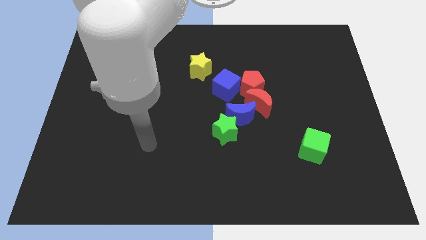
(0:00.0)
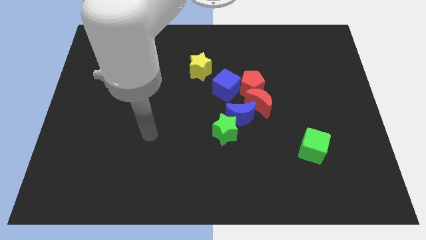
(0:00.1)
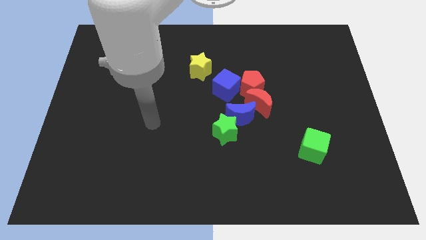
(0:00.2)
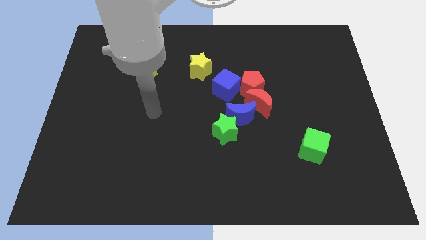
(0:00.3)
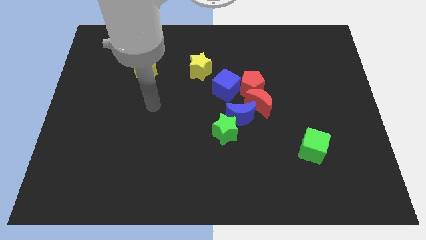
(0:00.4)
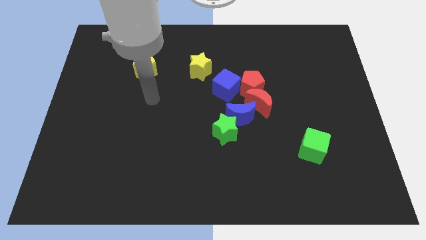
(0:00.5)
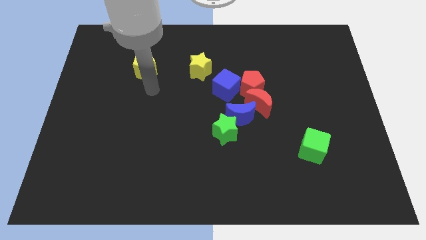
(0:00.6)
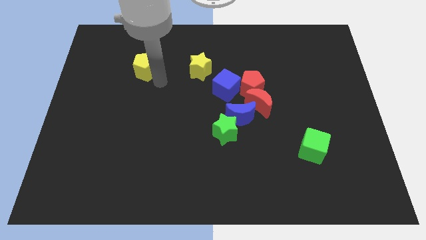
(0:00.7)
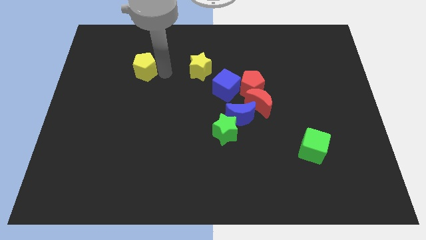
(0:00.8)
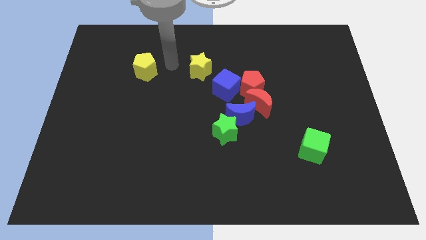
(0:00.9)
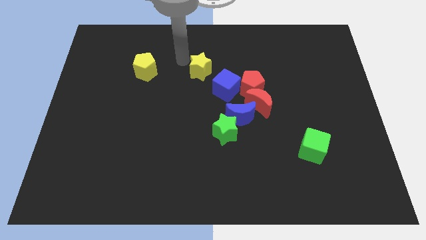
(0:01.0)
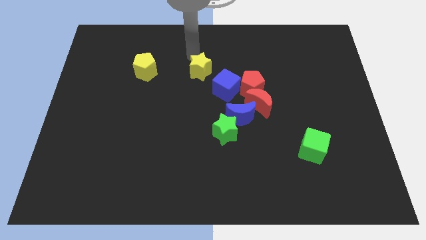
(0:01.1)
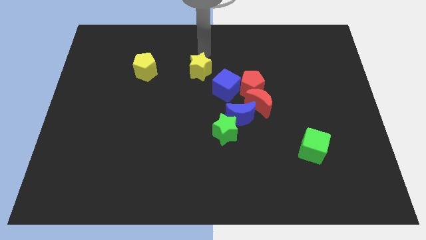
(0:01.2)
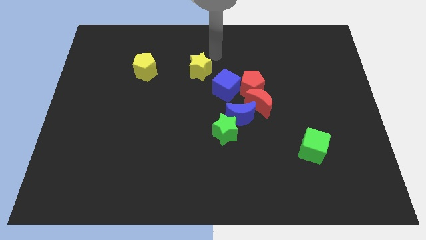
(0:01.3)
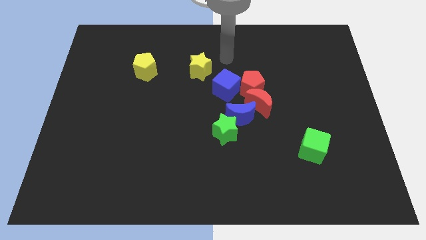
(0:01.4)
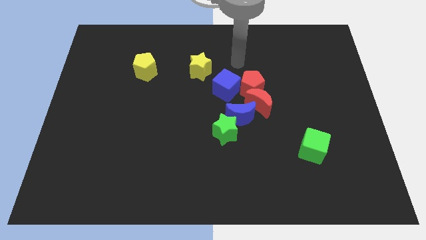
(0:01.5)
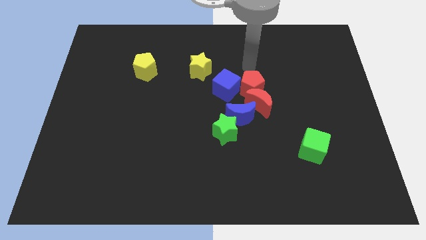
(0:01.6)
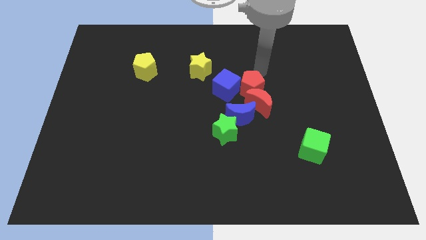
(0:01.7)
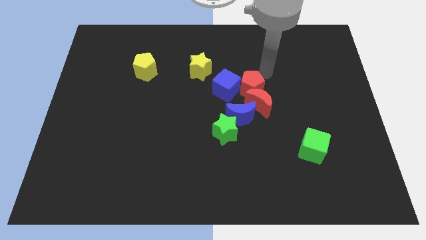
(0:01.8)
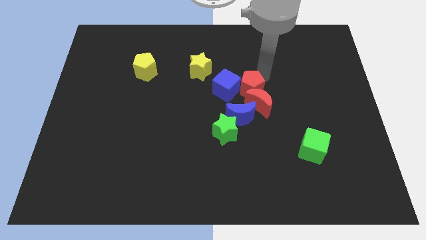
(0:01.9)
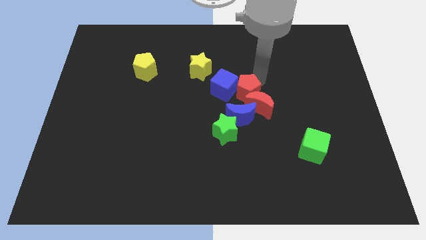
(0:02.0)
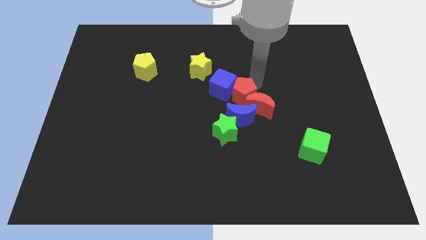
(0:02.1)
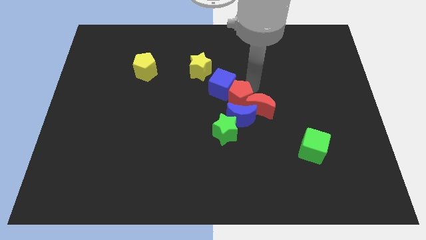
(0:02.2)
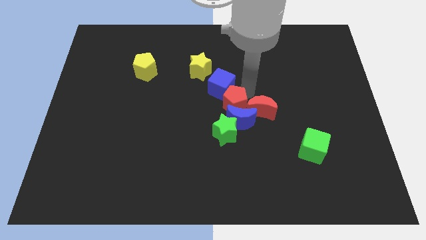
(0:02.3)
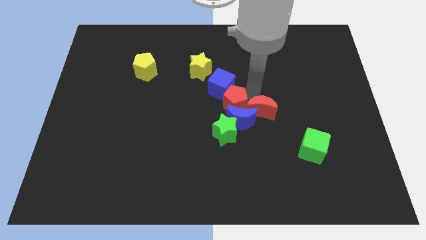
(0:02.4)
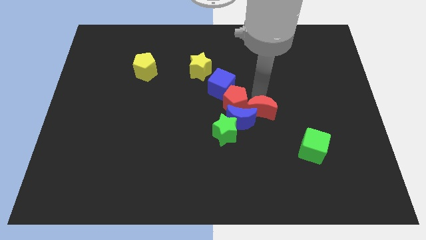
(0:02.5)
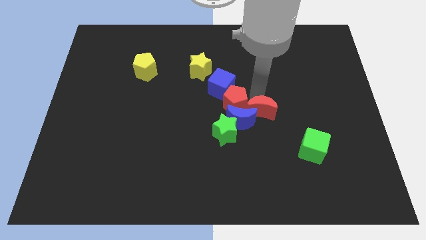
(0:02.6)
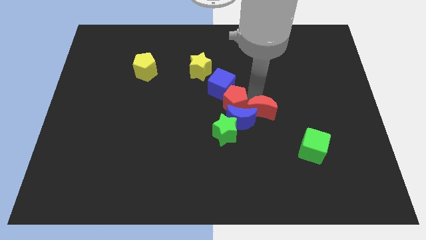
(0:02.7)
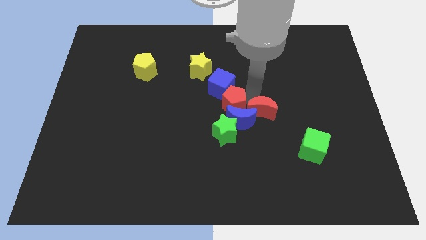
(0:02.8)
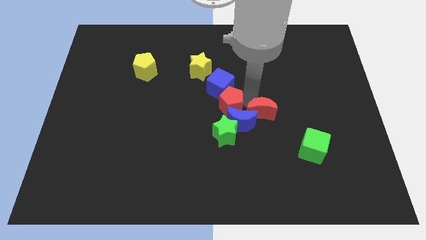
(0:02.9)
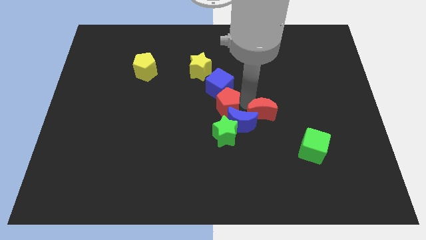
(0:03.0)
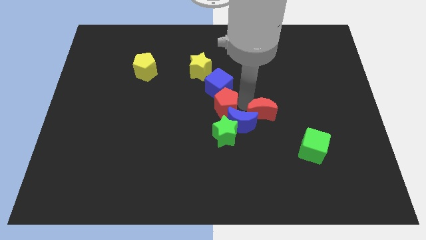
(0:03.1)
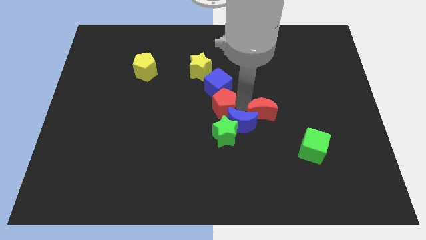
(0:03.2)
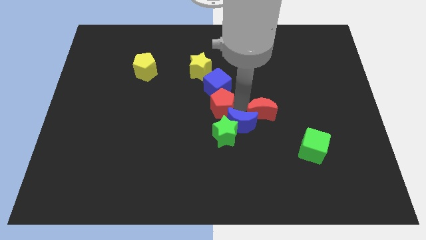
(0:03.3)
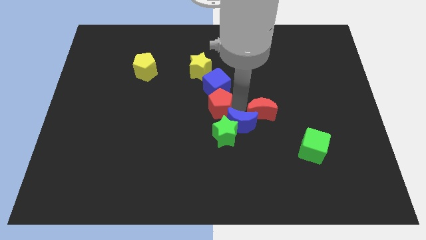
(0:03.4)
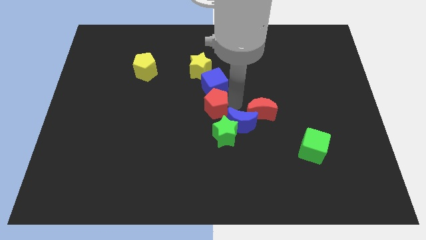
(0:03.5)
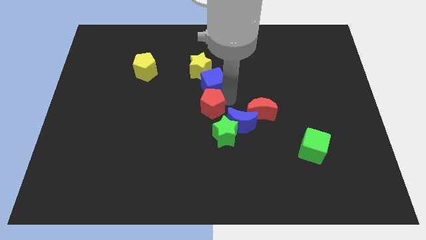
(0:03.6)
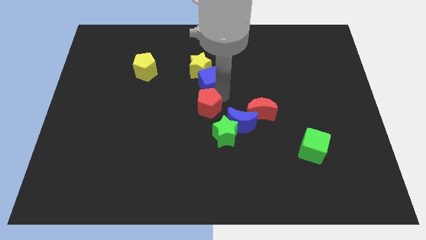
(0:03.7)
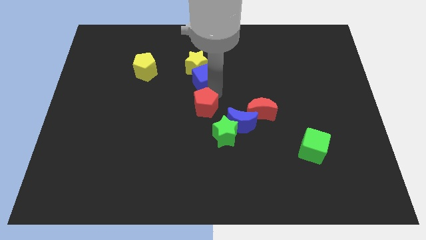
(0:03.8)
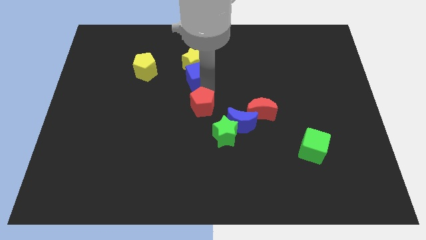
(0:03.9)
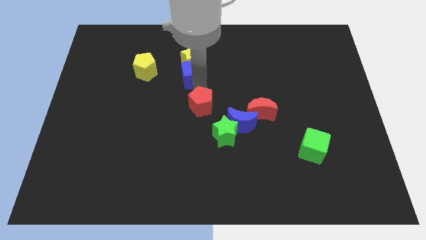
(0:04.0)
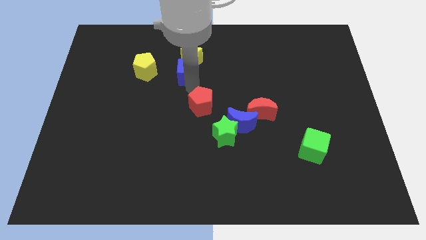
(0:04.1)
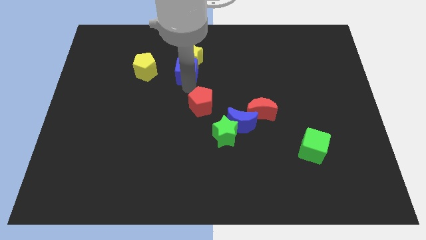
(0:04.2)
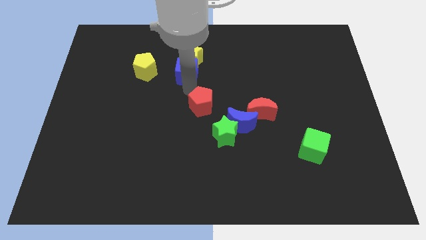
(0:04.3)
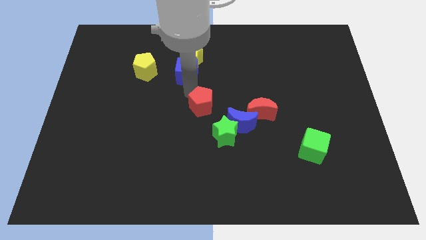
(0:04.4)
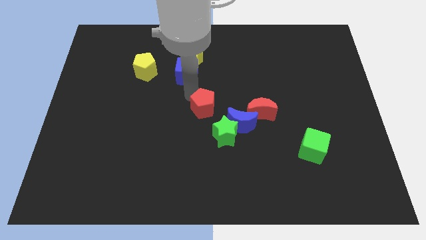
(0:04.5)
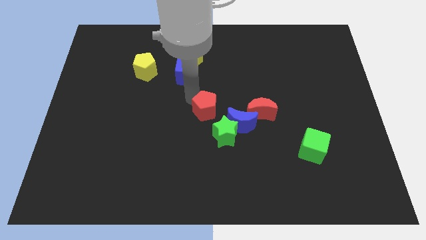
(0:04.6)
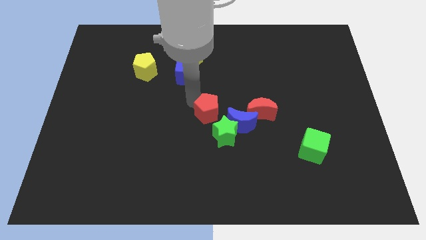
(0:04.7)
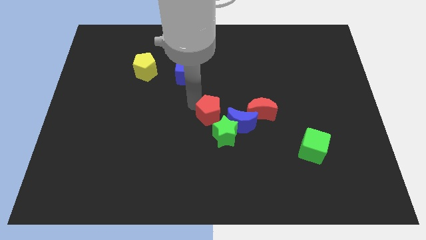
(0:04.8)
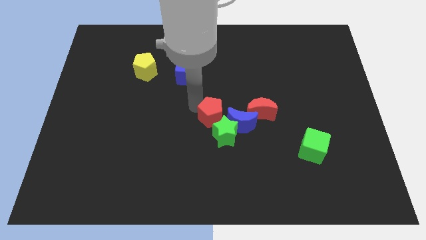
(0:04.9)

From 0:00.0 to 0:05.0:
move the red pentagon towards the green star

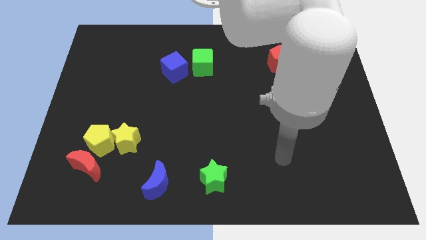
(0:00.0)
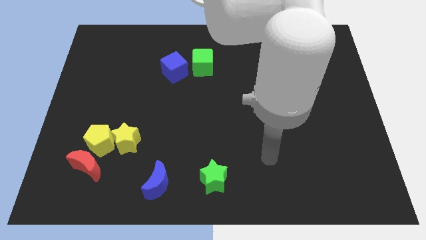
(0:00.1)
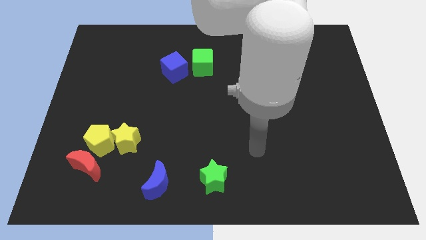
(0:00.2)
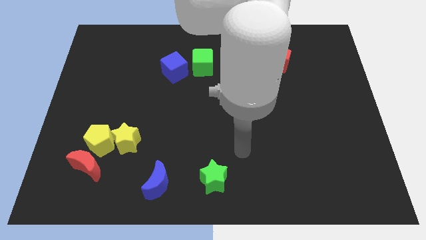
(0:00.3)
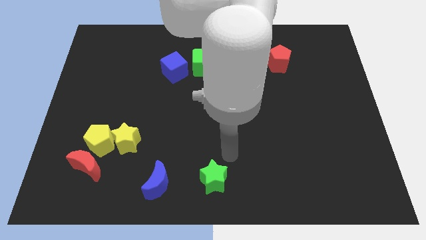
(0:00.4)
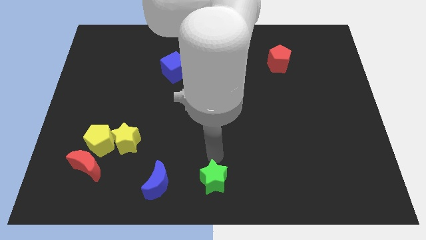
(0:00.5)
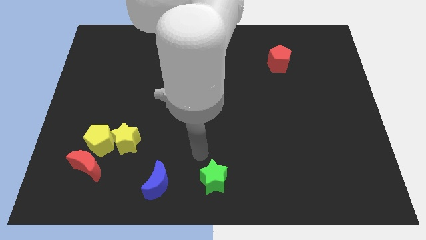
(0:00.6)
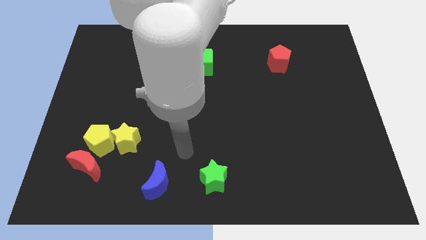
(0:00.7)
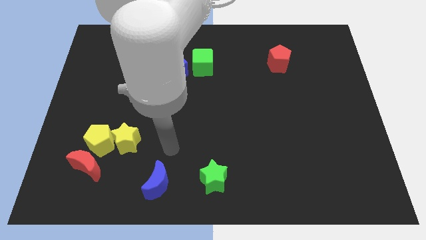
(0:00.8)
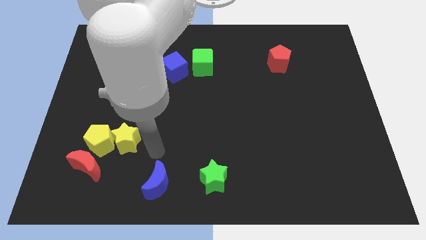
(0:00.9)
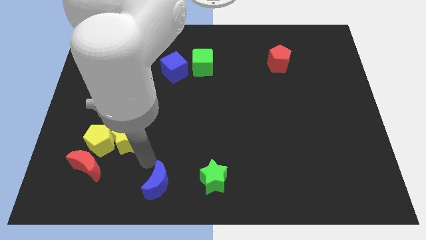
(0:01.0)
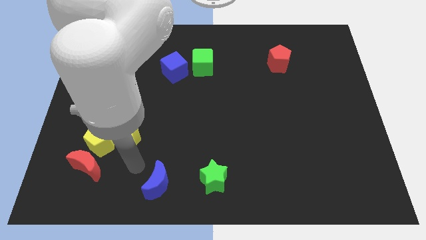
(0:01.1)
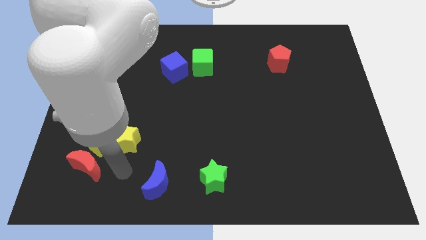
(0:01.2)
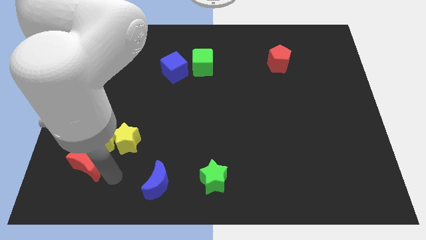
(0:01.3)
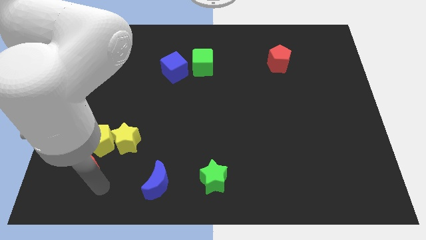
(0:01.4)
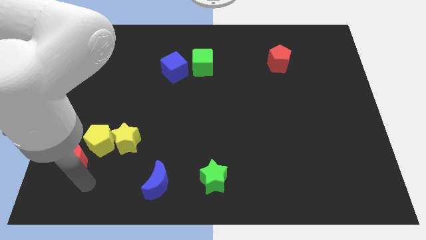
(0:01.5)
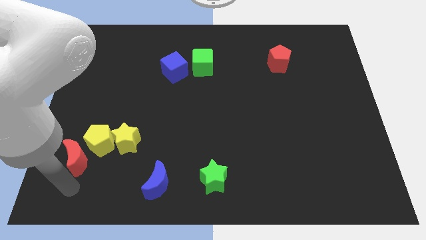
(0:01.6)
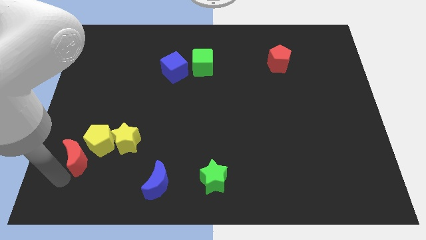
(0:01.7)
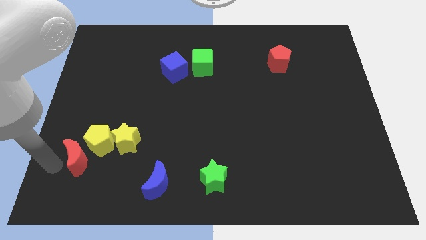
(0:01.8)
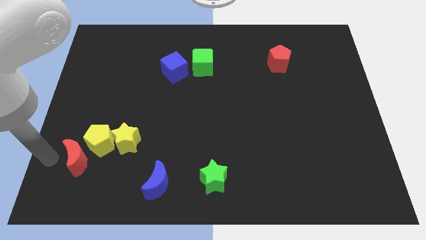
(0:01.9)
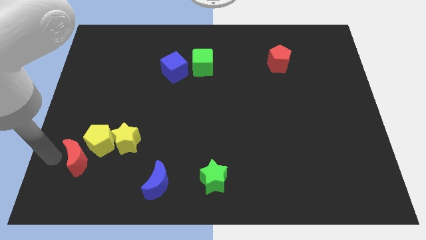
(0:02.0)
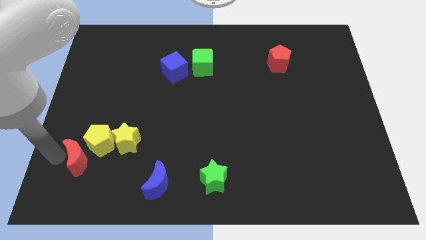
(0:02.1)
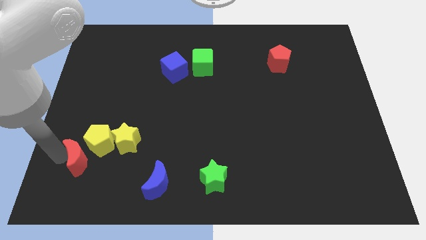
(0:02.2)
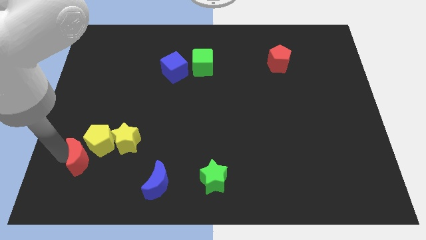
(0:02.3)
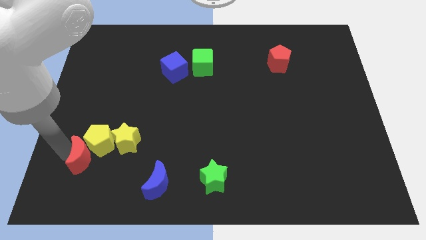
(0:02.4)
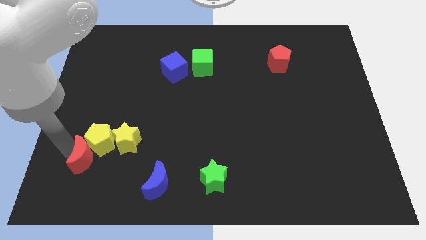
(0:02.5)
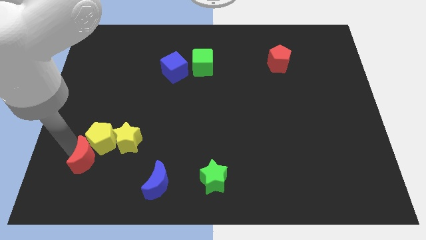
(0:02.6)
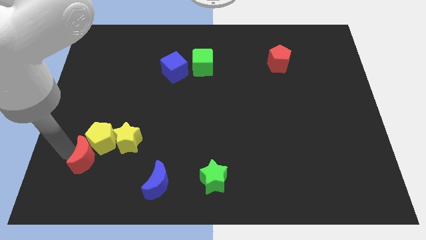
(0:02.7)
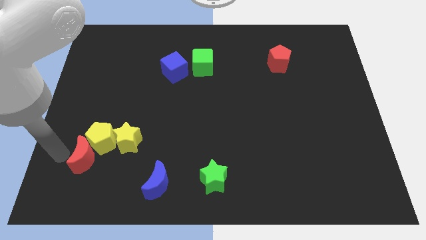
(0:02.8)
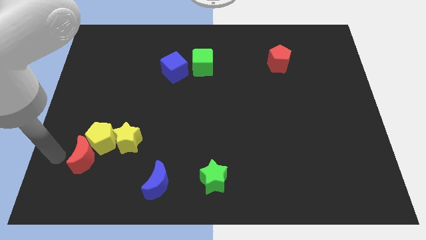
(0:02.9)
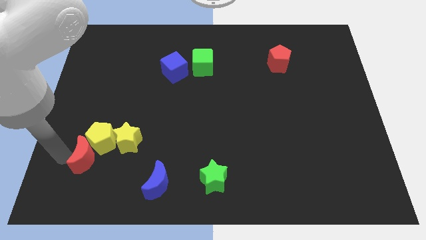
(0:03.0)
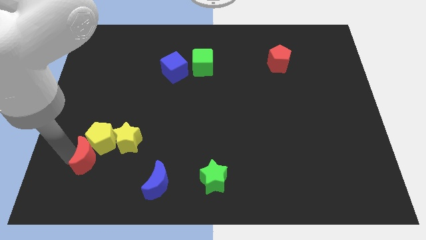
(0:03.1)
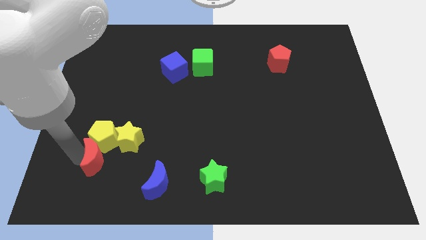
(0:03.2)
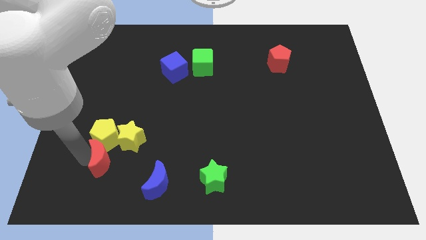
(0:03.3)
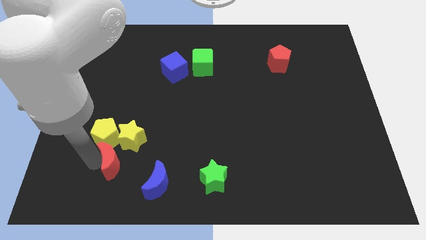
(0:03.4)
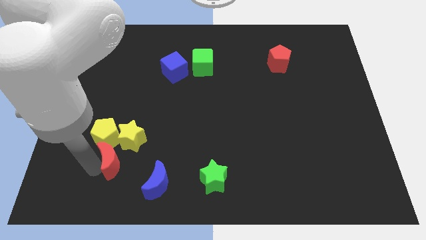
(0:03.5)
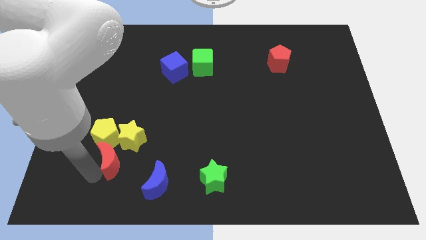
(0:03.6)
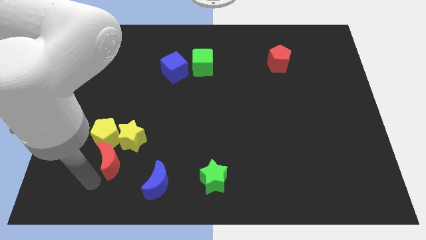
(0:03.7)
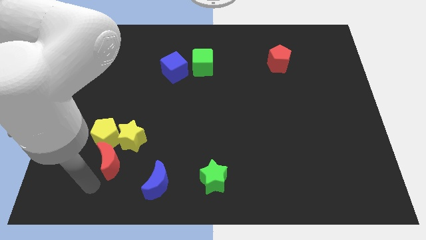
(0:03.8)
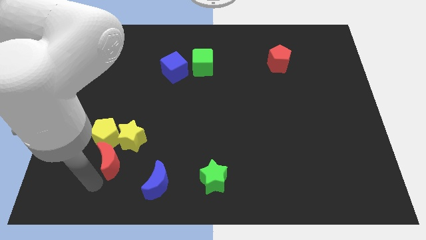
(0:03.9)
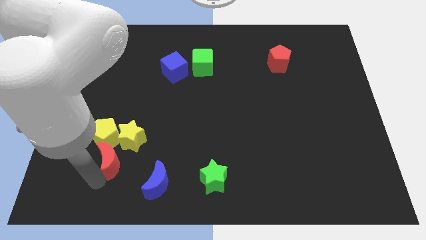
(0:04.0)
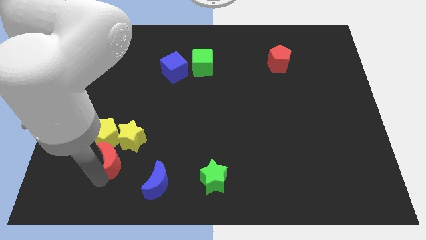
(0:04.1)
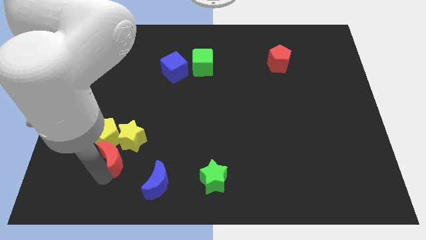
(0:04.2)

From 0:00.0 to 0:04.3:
push the red moon to the yellow star
